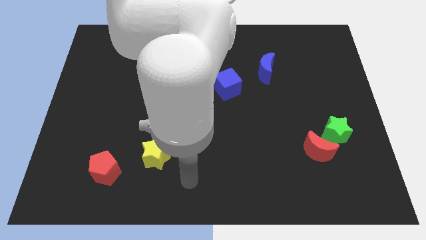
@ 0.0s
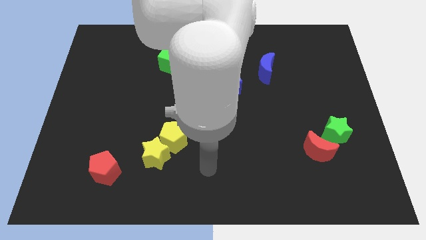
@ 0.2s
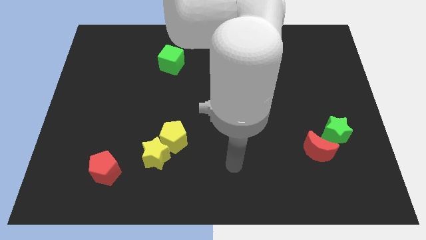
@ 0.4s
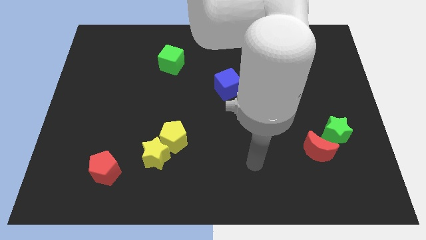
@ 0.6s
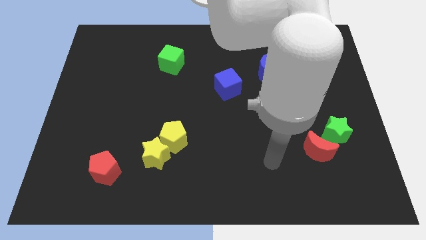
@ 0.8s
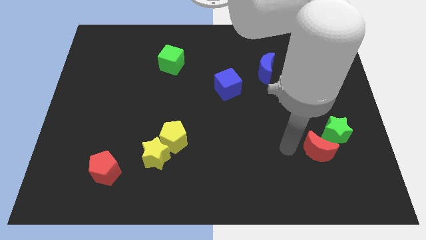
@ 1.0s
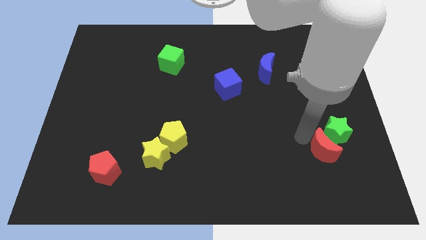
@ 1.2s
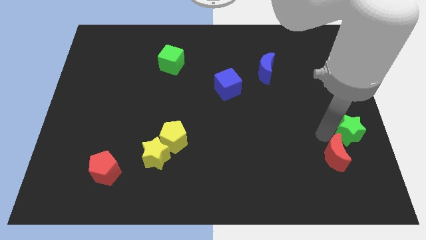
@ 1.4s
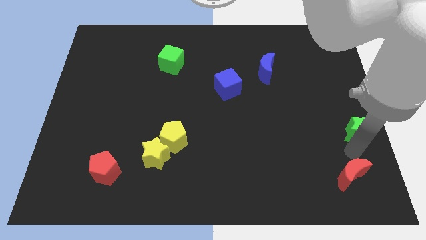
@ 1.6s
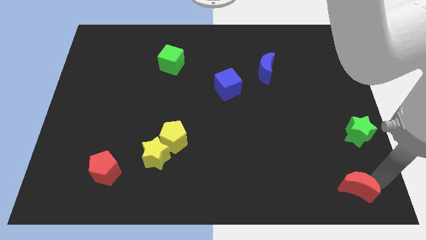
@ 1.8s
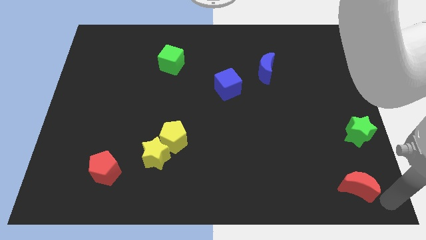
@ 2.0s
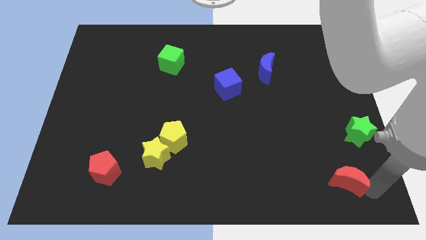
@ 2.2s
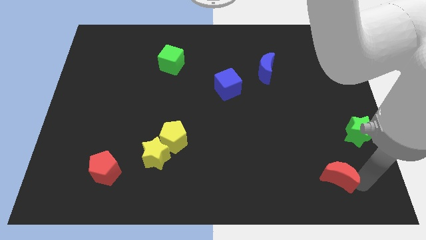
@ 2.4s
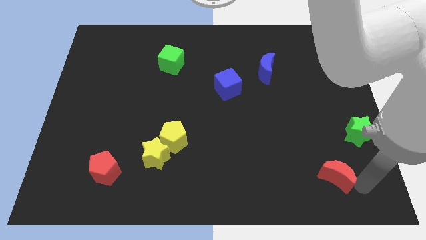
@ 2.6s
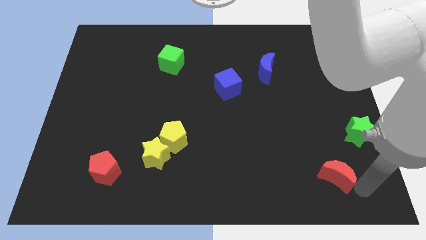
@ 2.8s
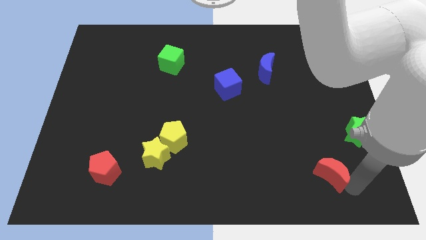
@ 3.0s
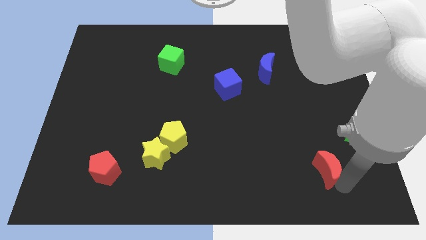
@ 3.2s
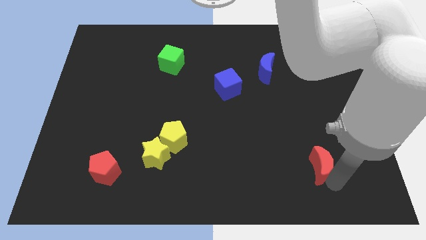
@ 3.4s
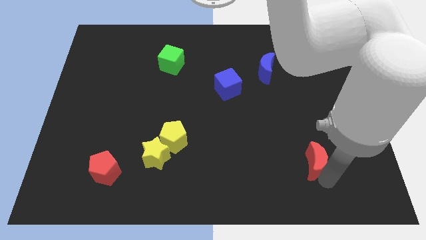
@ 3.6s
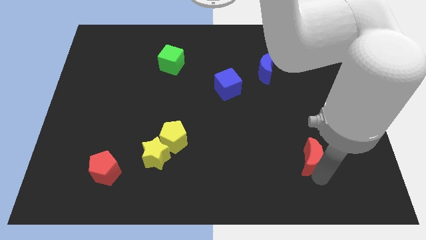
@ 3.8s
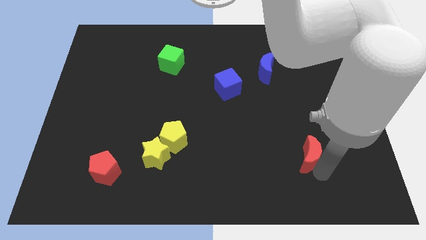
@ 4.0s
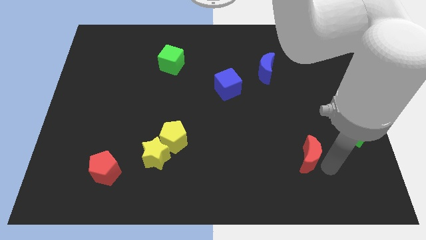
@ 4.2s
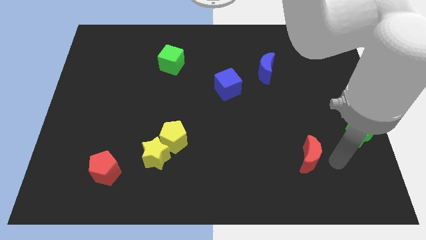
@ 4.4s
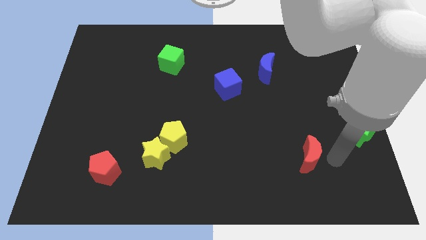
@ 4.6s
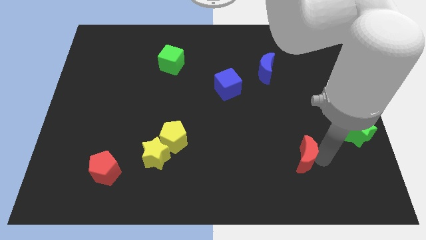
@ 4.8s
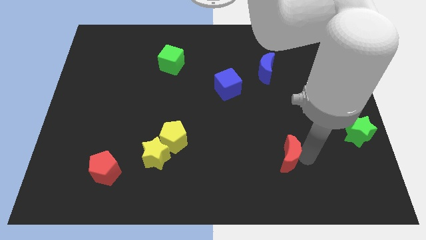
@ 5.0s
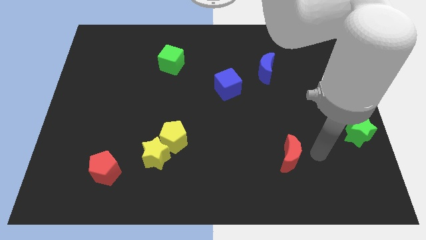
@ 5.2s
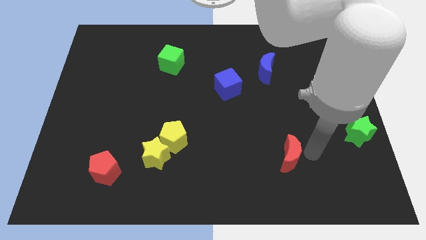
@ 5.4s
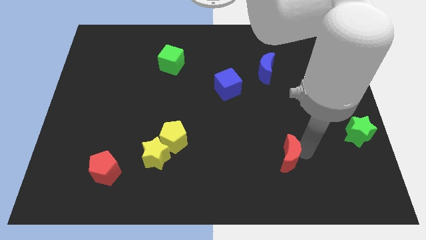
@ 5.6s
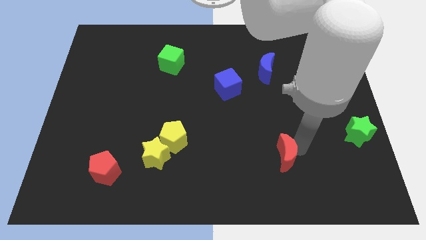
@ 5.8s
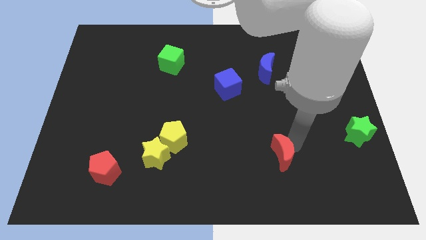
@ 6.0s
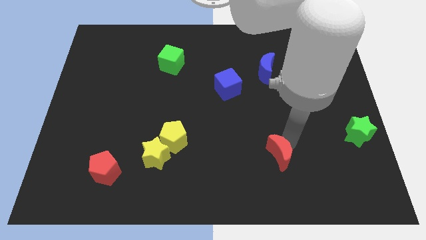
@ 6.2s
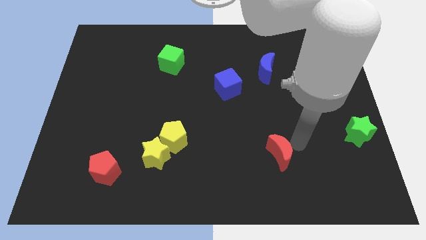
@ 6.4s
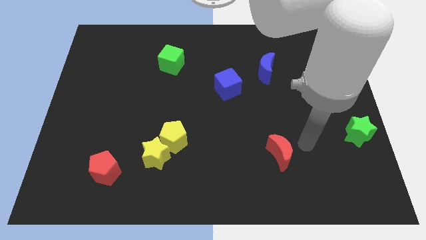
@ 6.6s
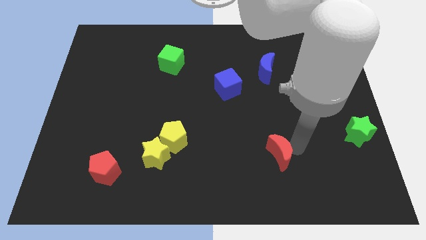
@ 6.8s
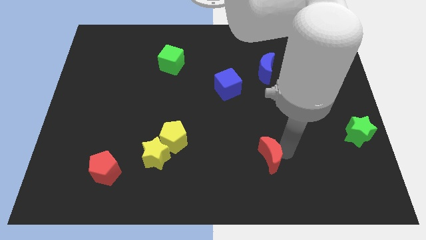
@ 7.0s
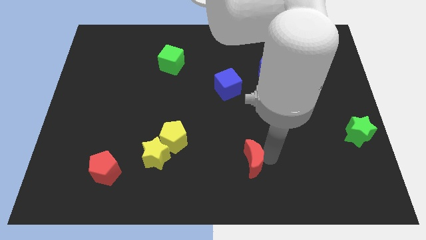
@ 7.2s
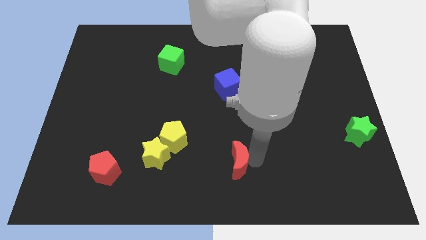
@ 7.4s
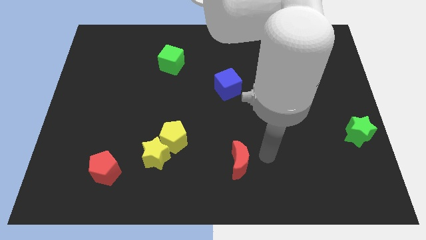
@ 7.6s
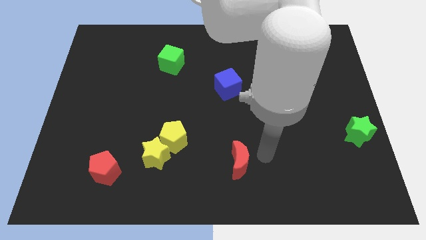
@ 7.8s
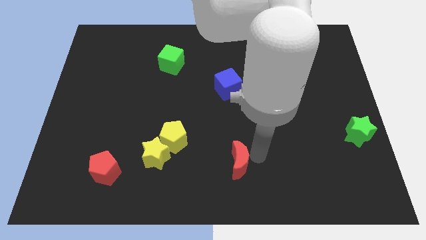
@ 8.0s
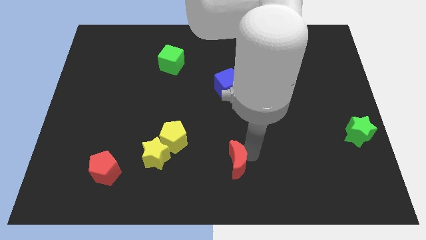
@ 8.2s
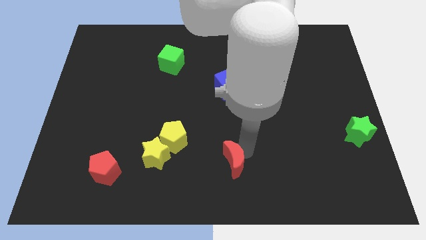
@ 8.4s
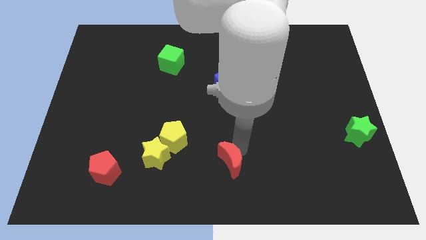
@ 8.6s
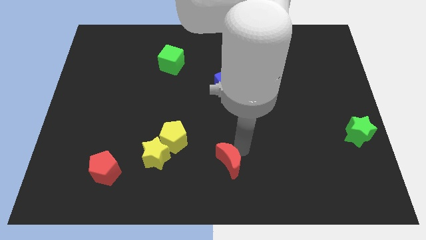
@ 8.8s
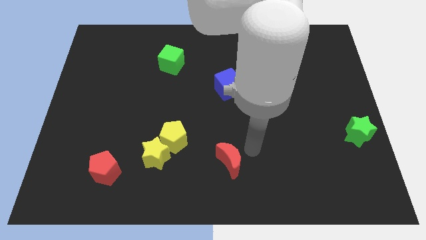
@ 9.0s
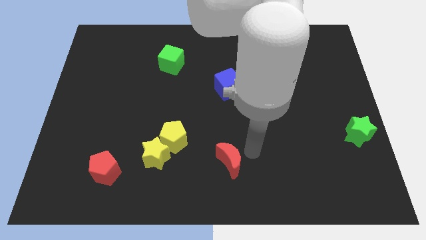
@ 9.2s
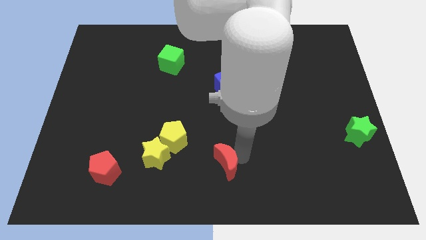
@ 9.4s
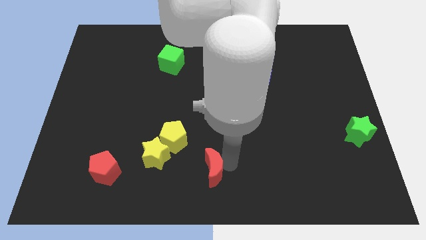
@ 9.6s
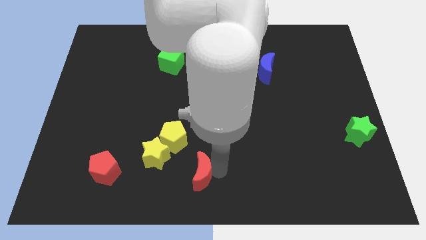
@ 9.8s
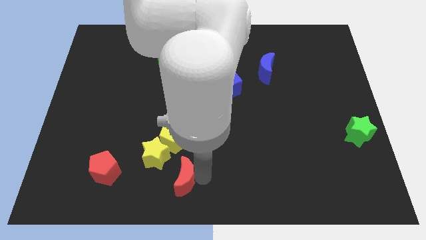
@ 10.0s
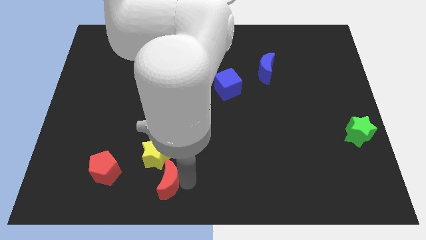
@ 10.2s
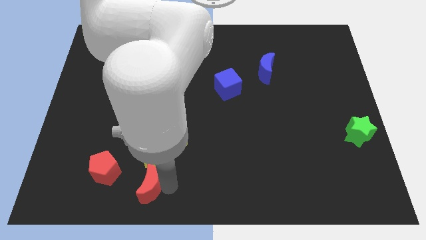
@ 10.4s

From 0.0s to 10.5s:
slide the red moon to the bottom left side of the yellow star

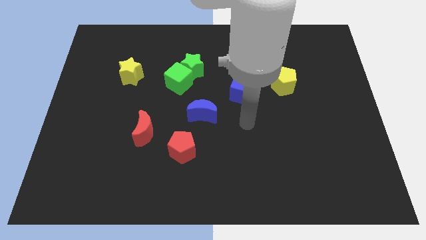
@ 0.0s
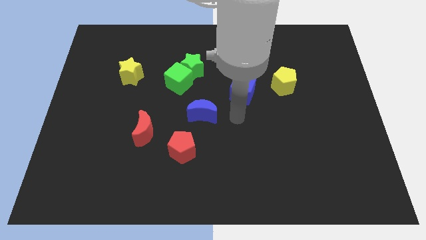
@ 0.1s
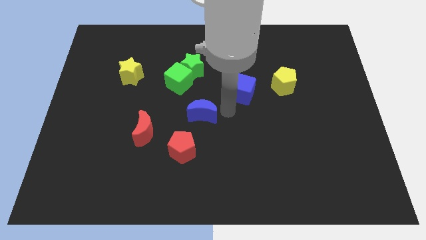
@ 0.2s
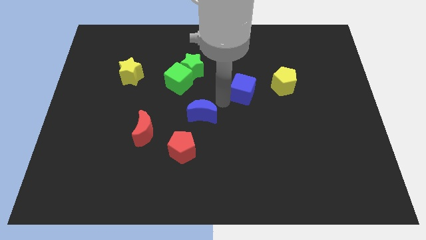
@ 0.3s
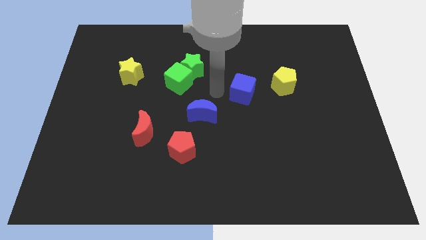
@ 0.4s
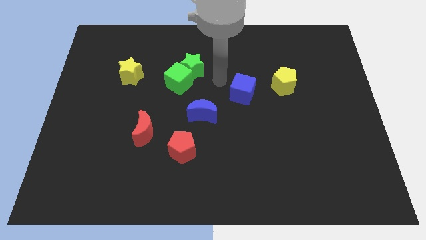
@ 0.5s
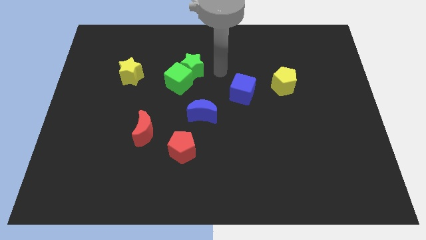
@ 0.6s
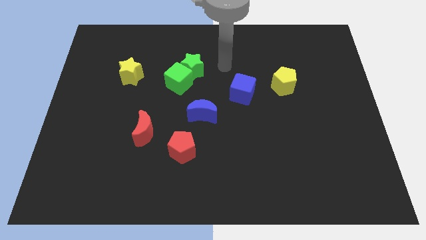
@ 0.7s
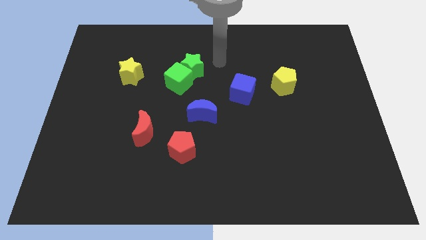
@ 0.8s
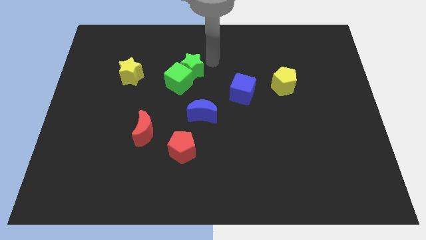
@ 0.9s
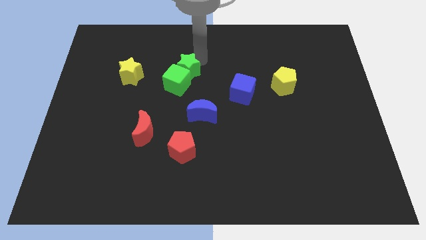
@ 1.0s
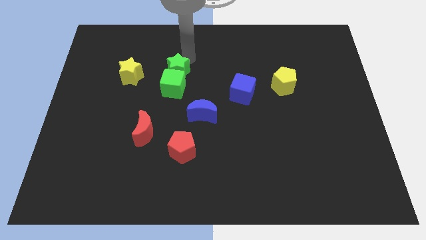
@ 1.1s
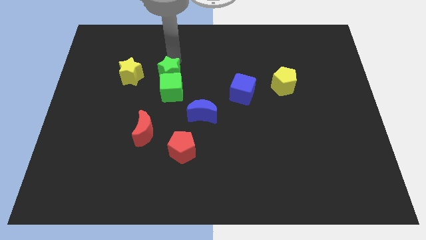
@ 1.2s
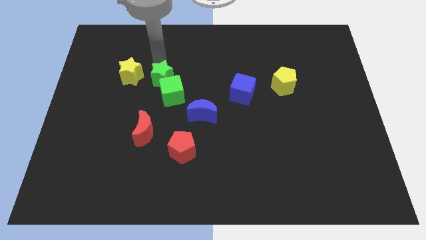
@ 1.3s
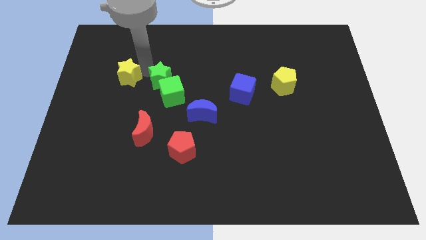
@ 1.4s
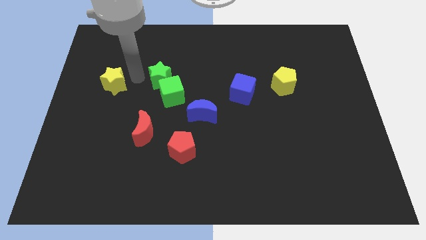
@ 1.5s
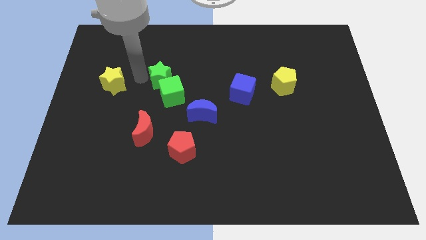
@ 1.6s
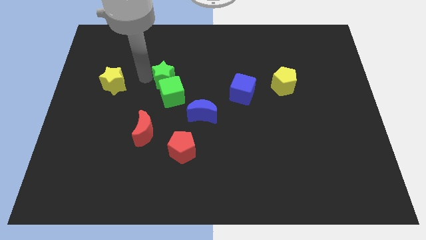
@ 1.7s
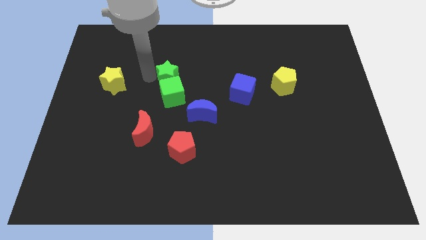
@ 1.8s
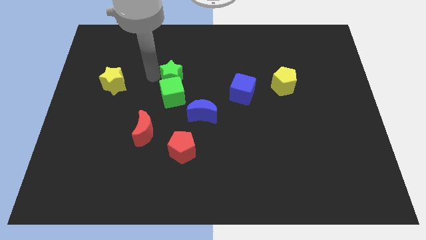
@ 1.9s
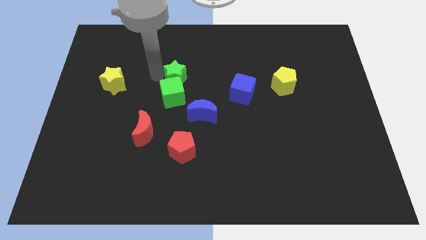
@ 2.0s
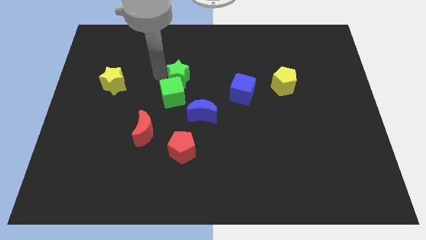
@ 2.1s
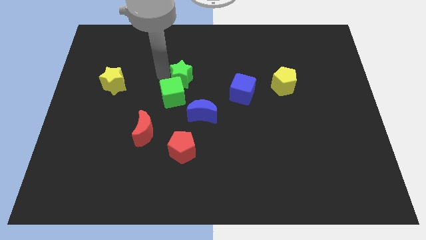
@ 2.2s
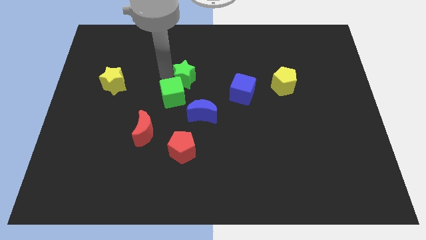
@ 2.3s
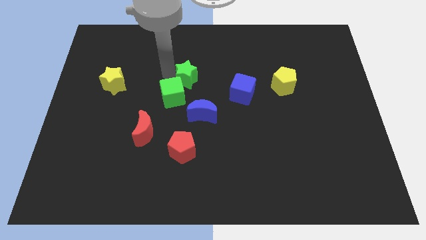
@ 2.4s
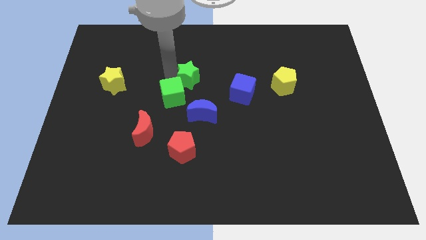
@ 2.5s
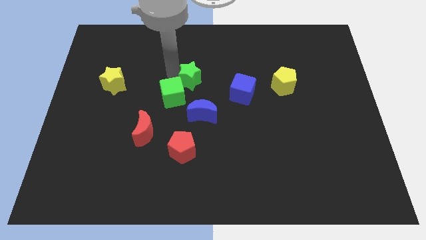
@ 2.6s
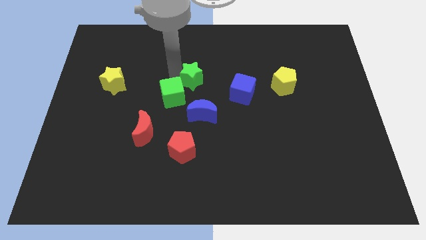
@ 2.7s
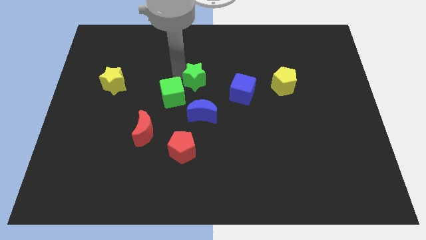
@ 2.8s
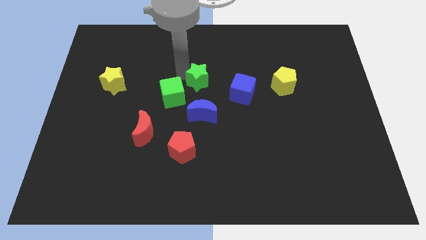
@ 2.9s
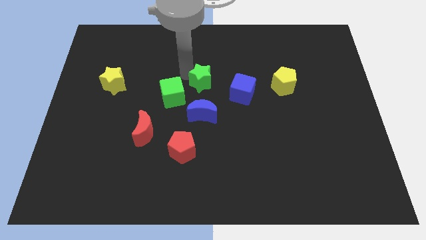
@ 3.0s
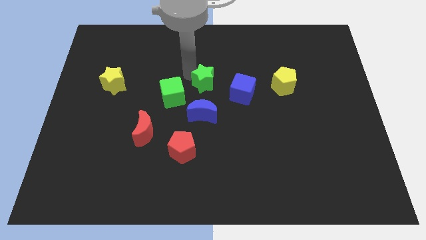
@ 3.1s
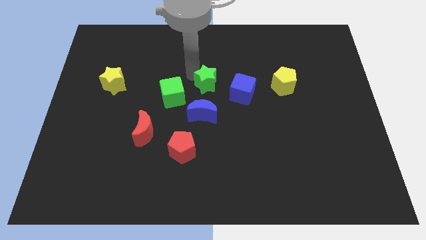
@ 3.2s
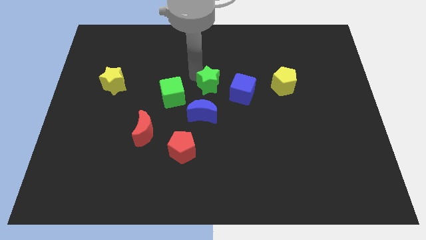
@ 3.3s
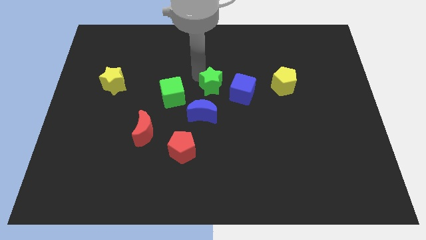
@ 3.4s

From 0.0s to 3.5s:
push the green star to the top right of the blue moon
